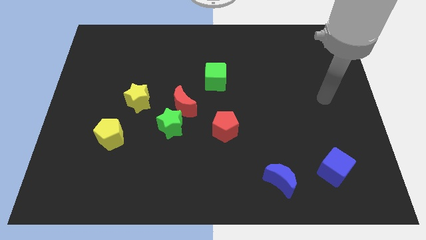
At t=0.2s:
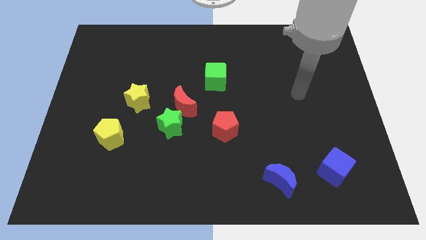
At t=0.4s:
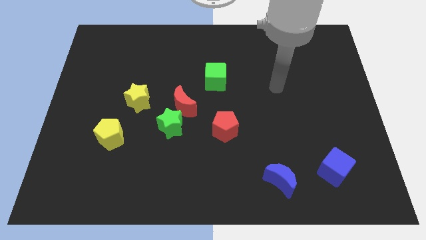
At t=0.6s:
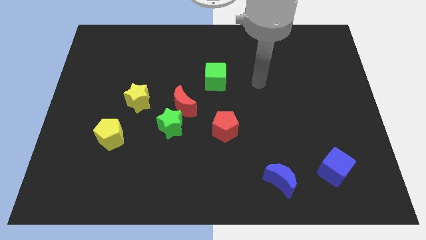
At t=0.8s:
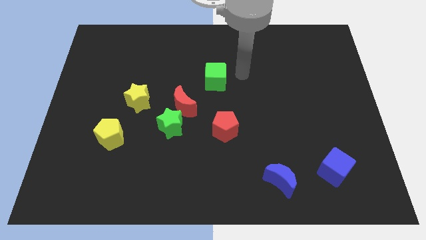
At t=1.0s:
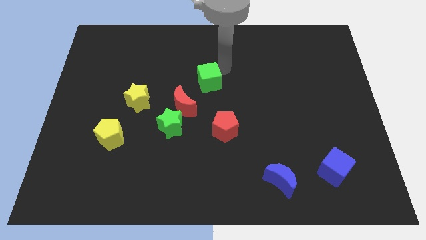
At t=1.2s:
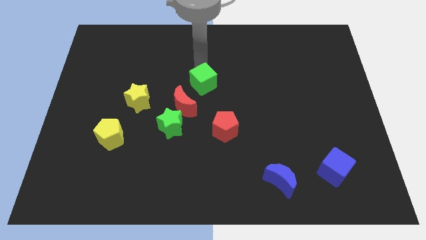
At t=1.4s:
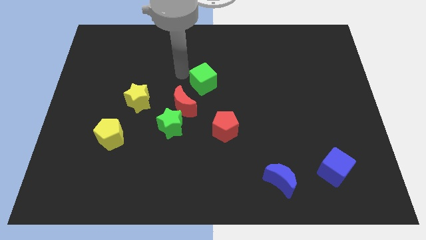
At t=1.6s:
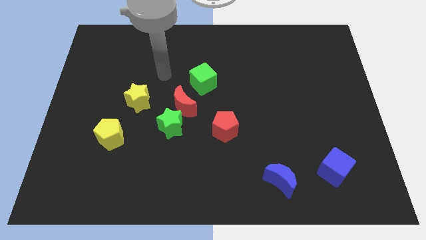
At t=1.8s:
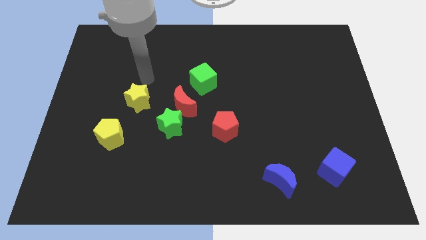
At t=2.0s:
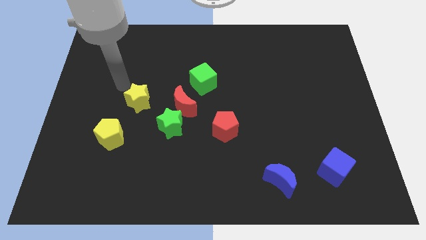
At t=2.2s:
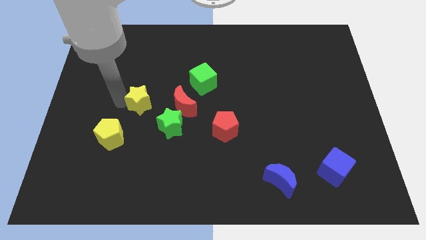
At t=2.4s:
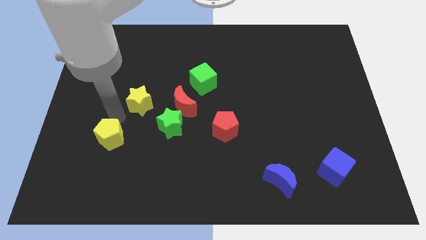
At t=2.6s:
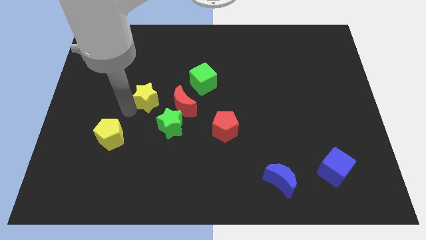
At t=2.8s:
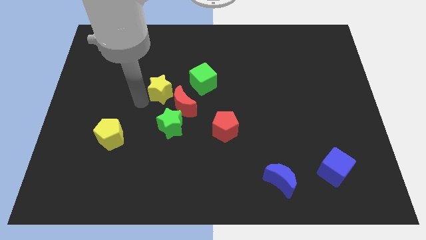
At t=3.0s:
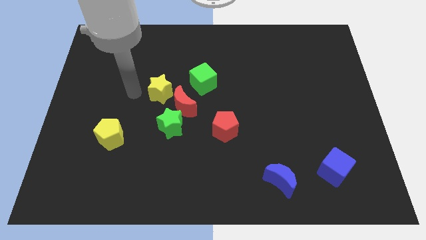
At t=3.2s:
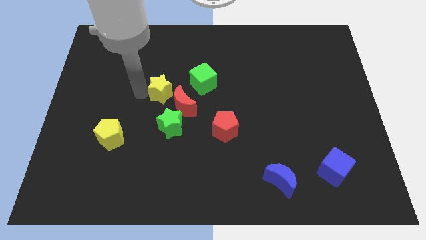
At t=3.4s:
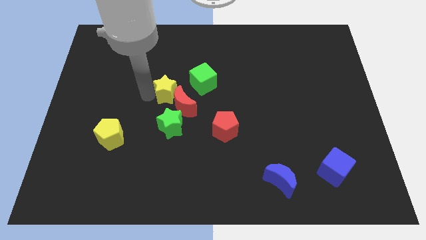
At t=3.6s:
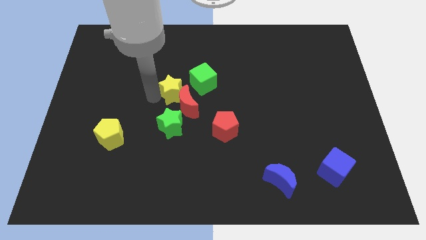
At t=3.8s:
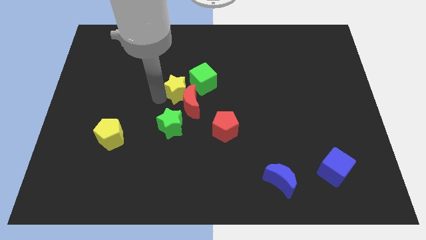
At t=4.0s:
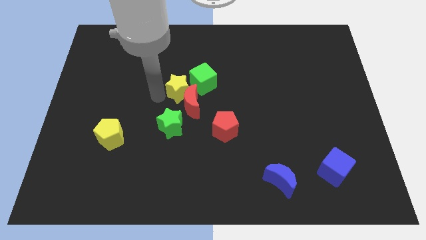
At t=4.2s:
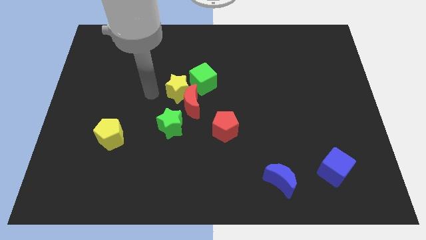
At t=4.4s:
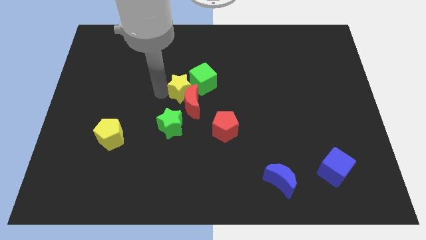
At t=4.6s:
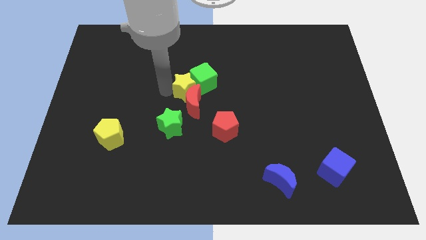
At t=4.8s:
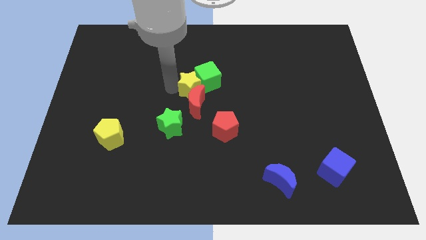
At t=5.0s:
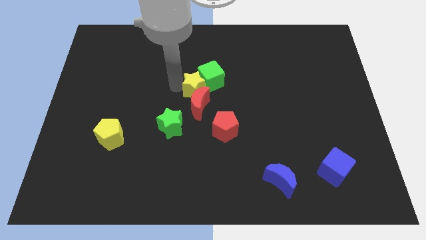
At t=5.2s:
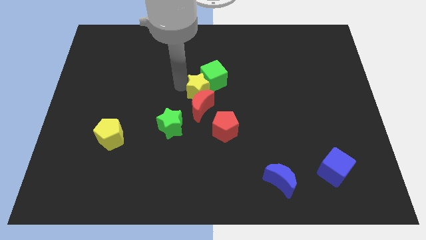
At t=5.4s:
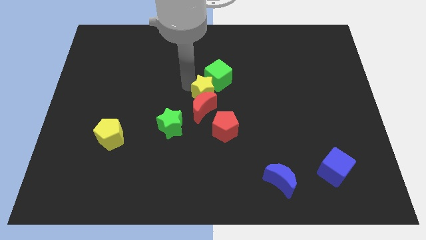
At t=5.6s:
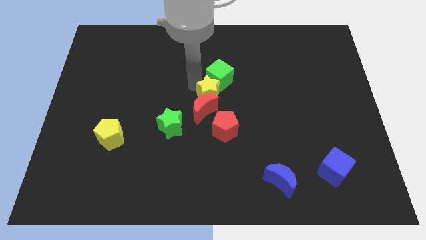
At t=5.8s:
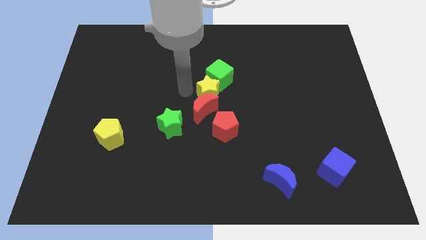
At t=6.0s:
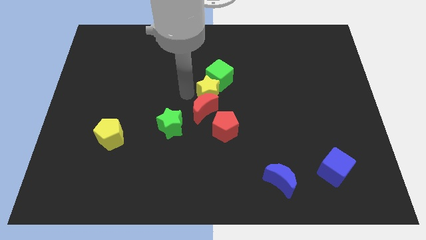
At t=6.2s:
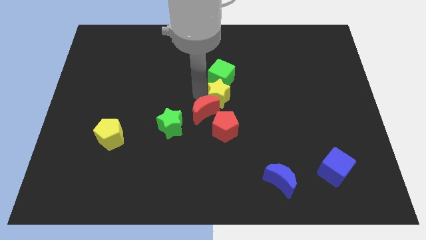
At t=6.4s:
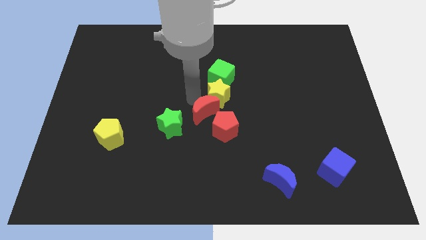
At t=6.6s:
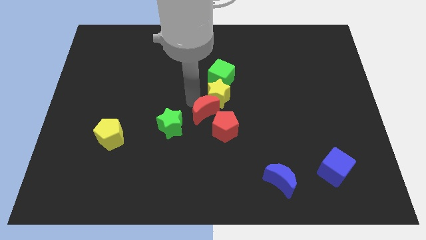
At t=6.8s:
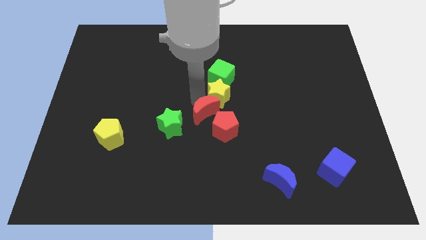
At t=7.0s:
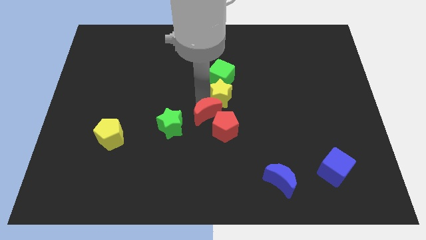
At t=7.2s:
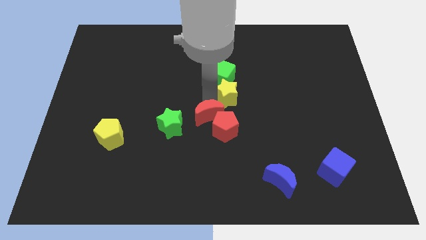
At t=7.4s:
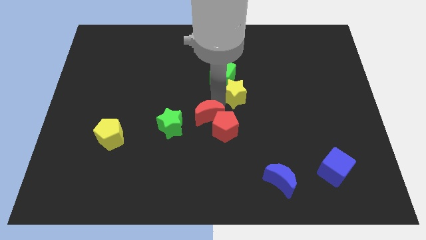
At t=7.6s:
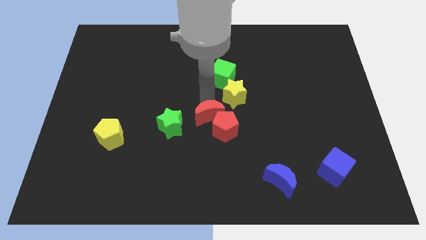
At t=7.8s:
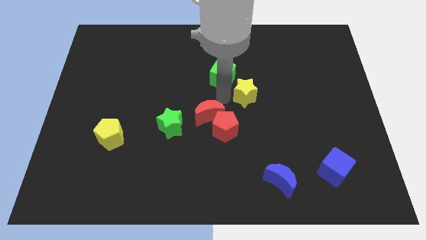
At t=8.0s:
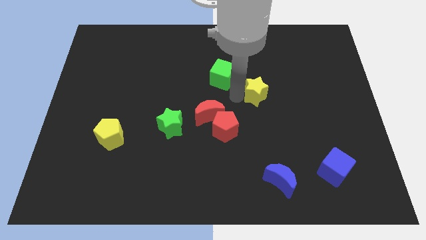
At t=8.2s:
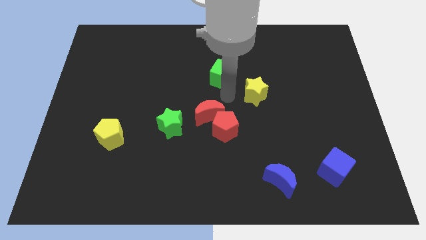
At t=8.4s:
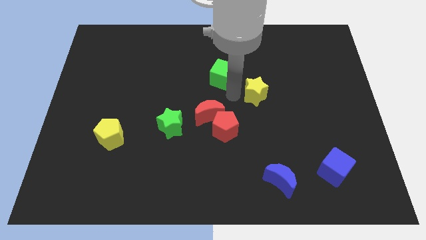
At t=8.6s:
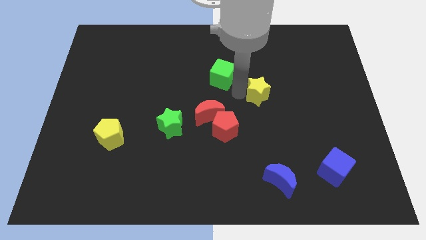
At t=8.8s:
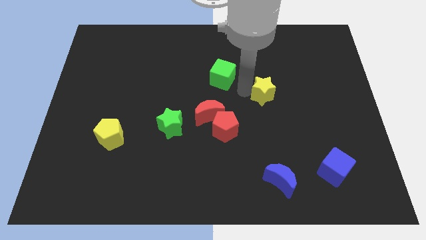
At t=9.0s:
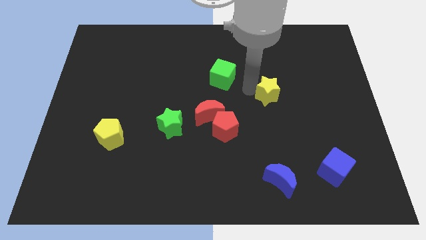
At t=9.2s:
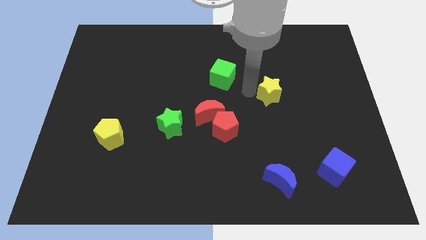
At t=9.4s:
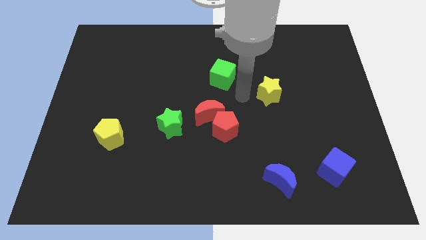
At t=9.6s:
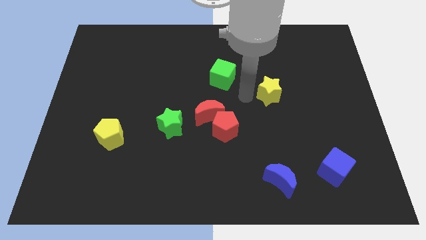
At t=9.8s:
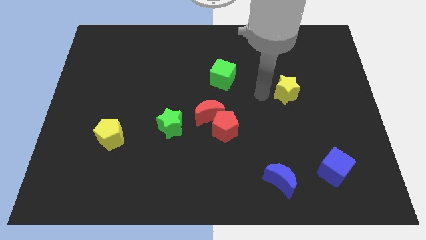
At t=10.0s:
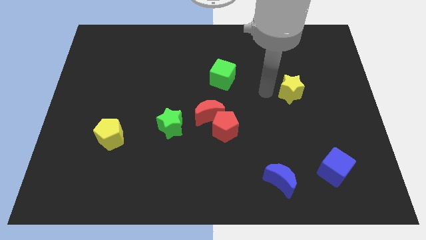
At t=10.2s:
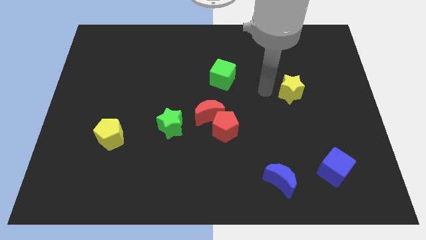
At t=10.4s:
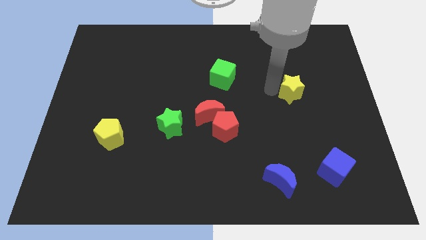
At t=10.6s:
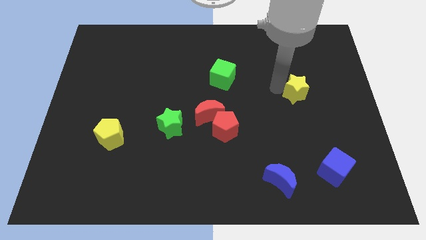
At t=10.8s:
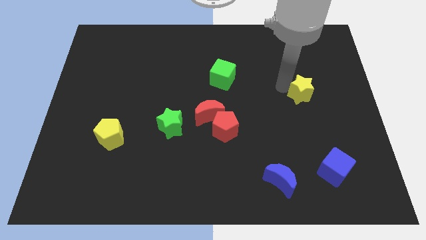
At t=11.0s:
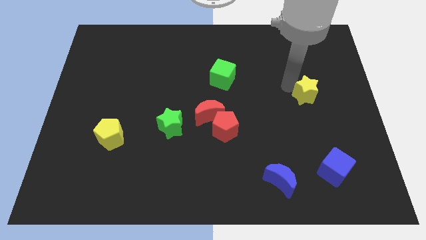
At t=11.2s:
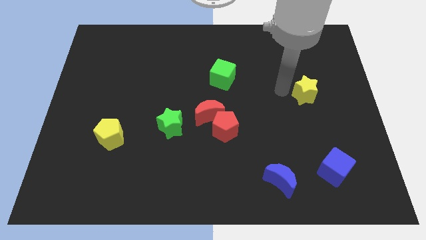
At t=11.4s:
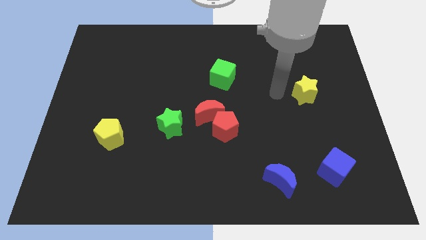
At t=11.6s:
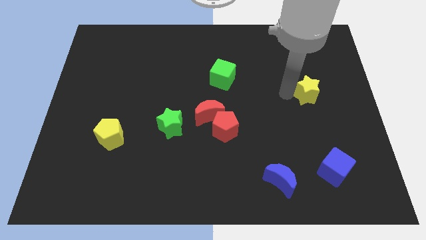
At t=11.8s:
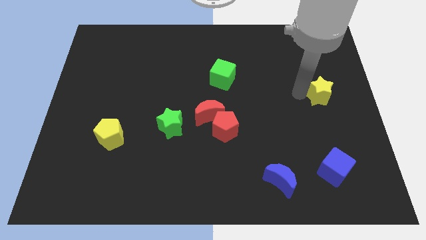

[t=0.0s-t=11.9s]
put the yellow star to the right side of the board

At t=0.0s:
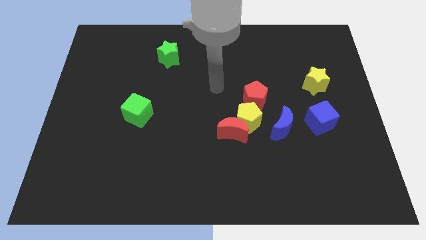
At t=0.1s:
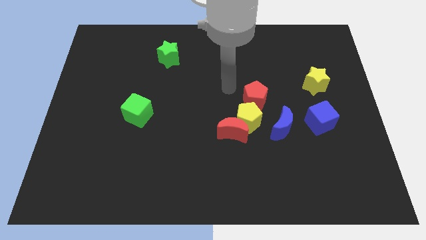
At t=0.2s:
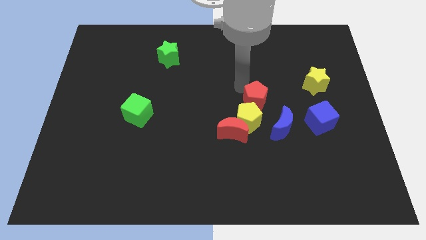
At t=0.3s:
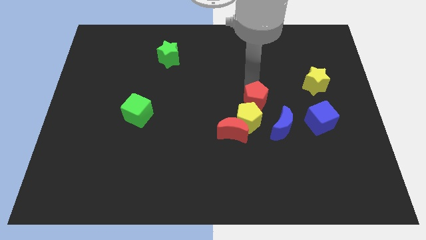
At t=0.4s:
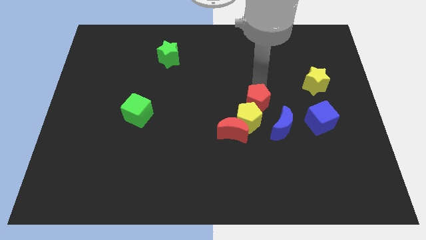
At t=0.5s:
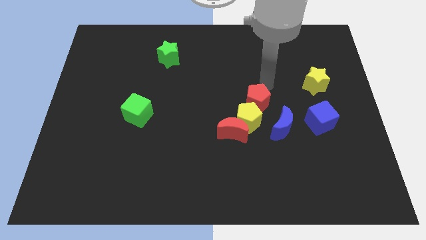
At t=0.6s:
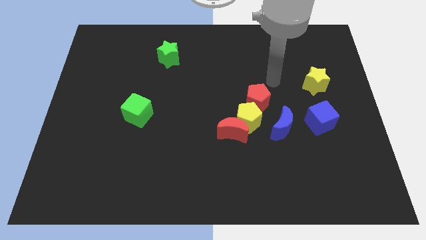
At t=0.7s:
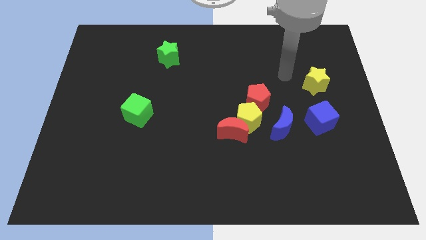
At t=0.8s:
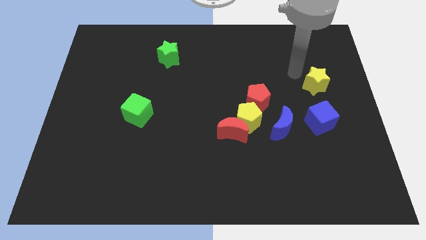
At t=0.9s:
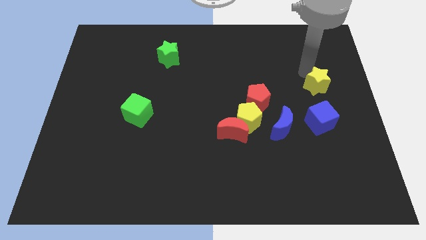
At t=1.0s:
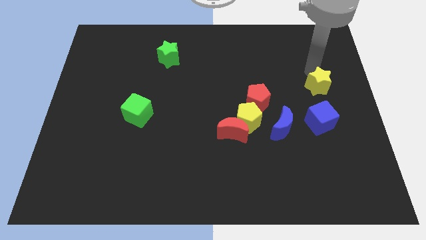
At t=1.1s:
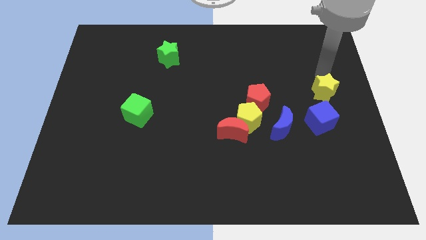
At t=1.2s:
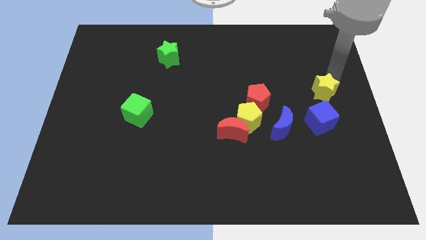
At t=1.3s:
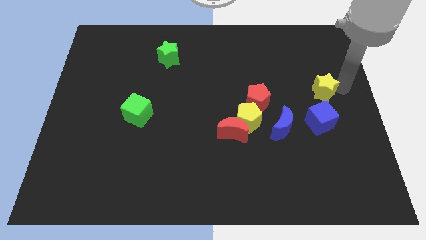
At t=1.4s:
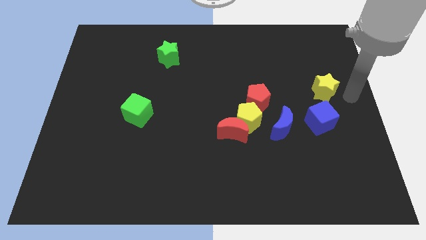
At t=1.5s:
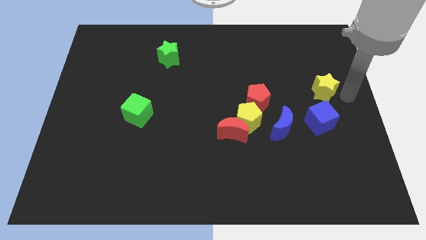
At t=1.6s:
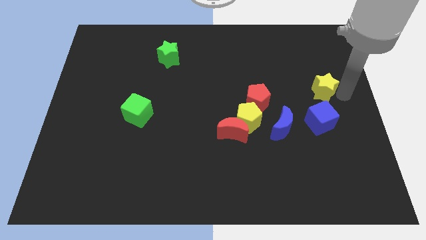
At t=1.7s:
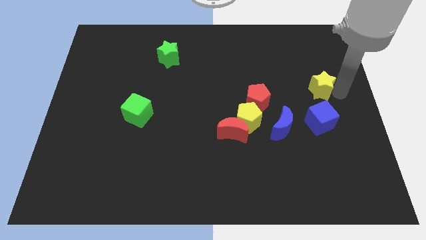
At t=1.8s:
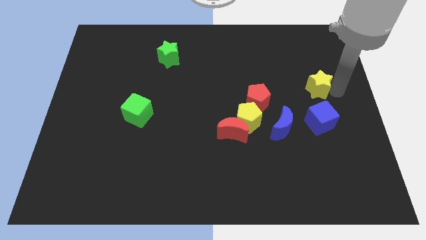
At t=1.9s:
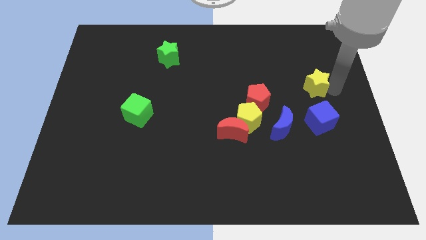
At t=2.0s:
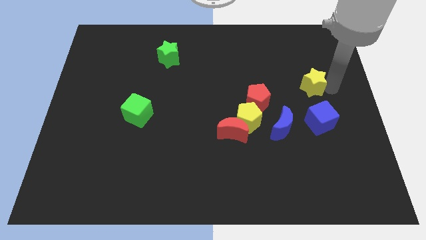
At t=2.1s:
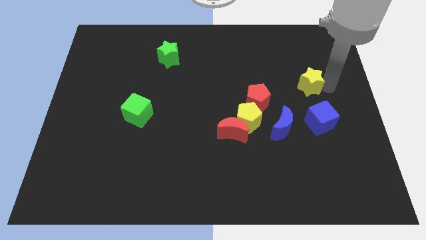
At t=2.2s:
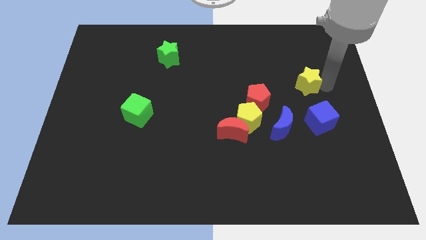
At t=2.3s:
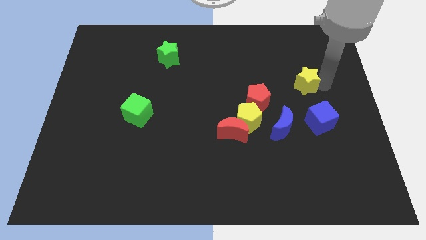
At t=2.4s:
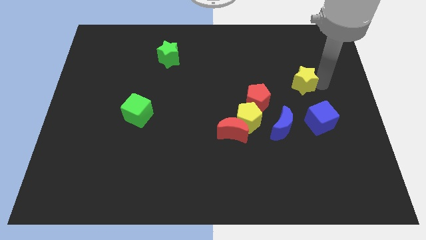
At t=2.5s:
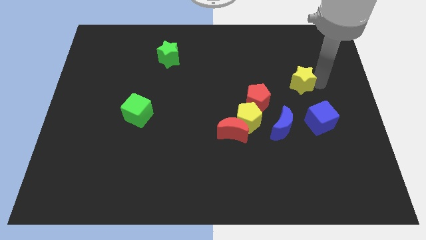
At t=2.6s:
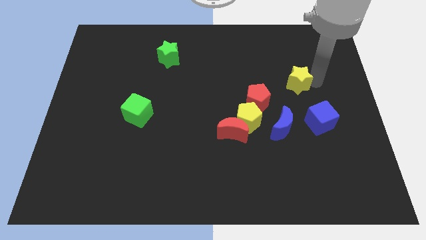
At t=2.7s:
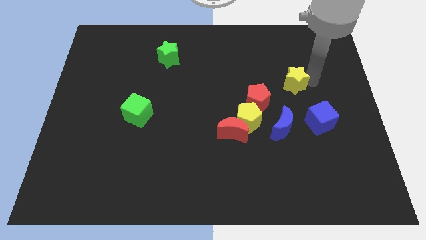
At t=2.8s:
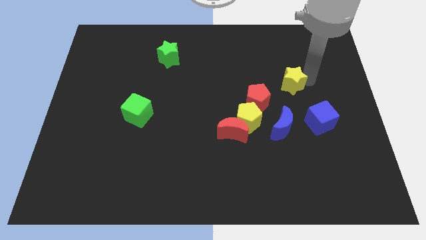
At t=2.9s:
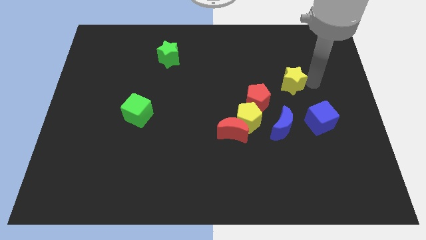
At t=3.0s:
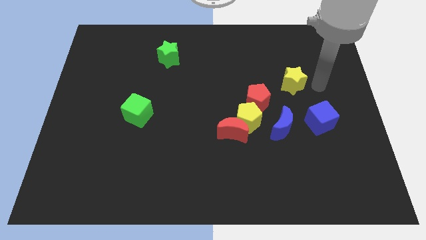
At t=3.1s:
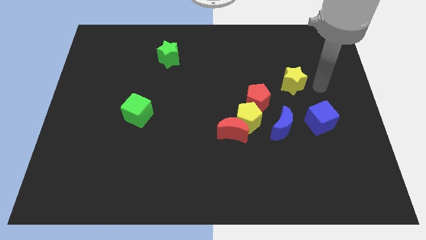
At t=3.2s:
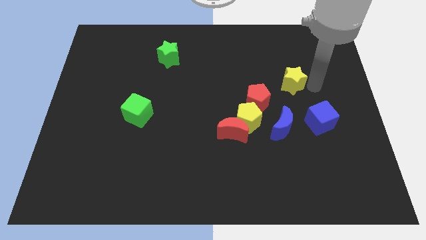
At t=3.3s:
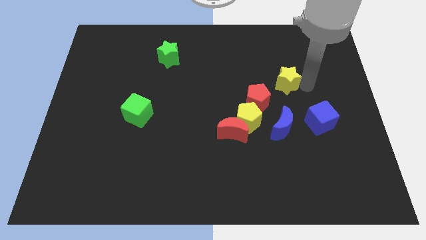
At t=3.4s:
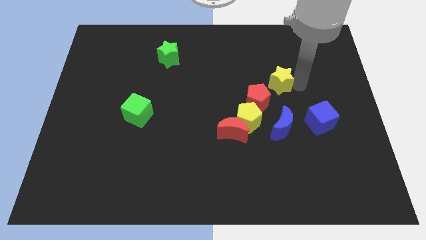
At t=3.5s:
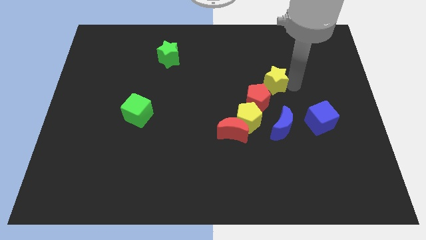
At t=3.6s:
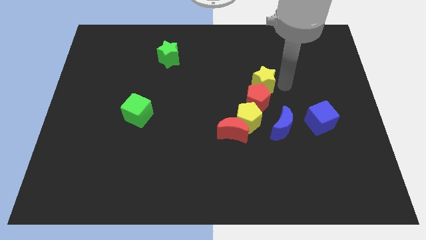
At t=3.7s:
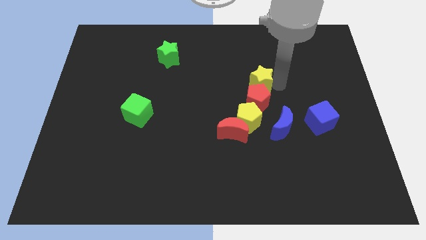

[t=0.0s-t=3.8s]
push the yellow star to the middle of the board
